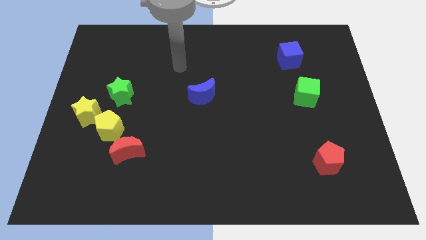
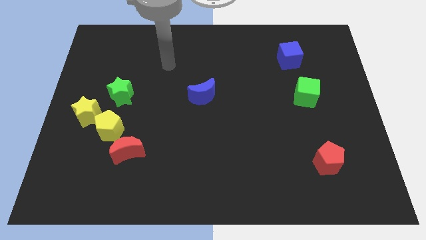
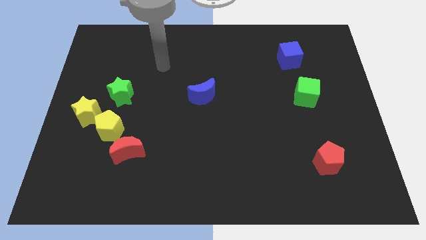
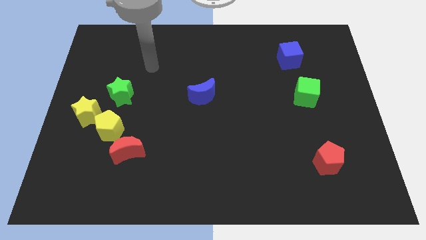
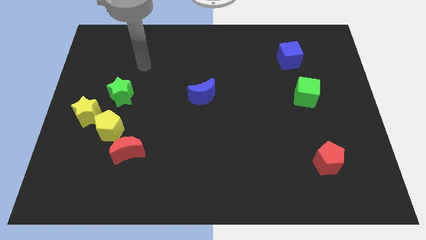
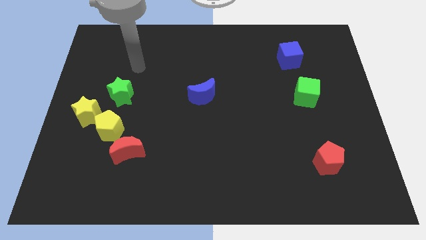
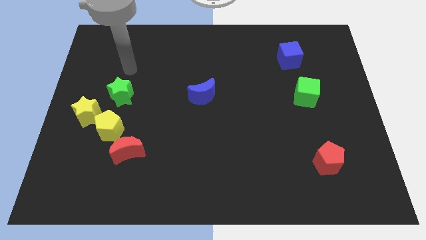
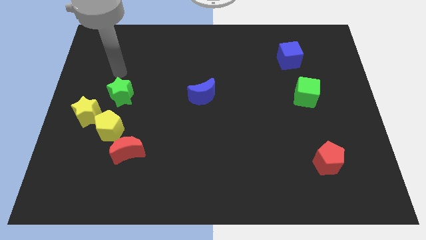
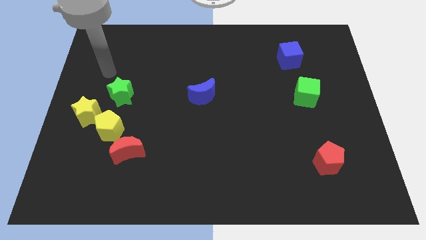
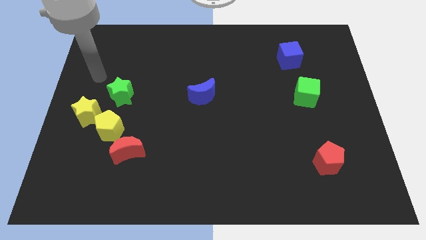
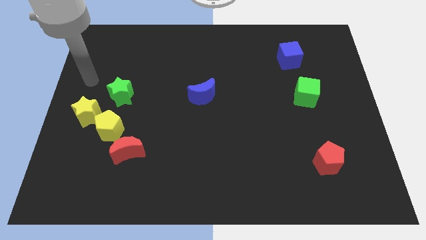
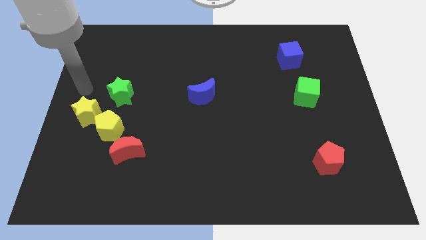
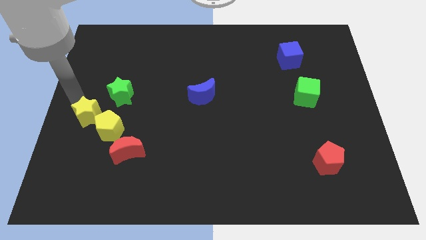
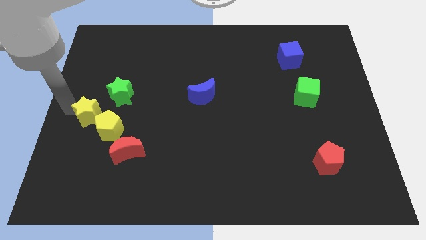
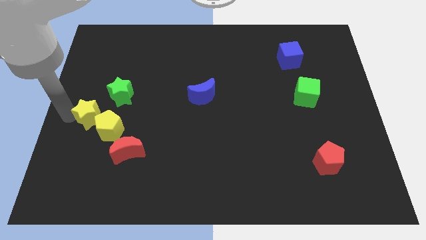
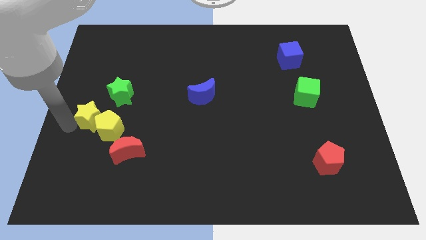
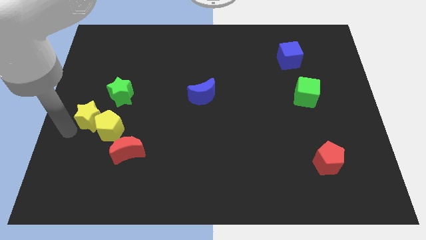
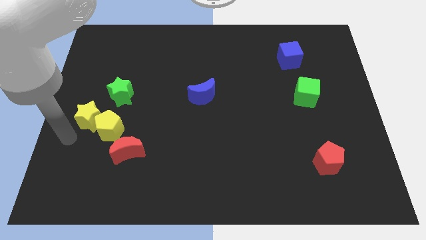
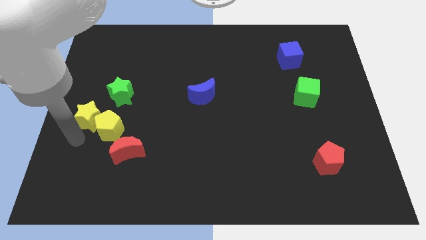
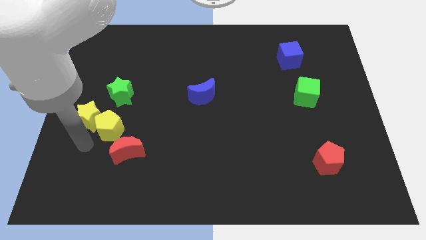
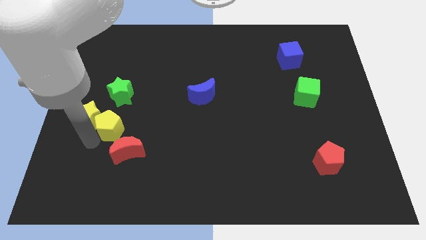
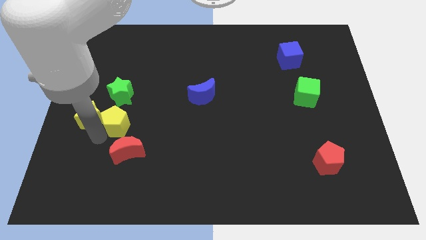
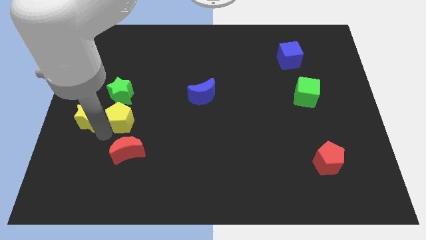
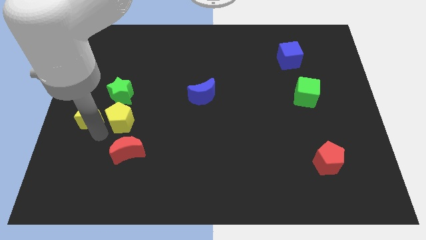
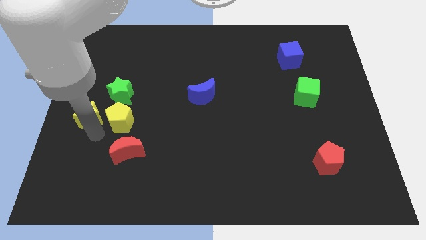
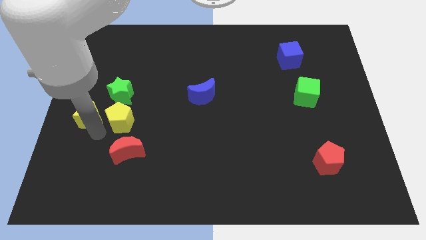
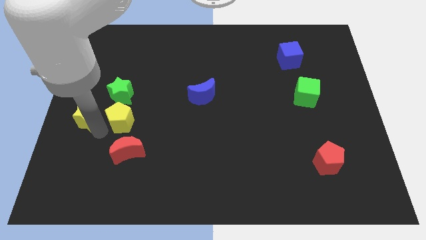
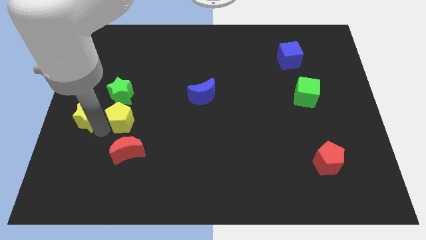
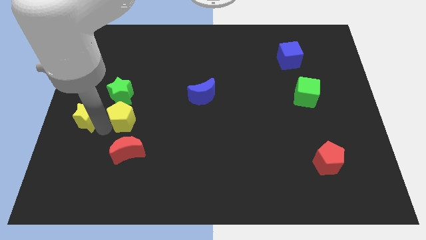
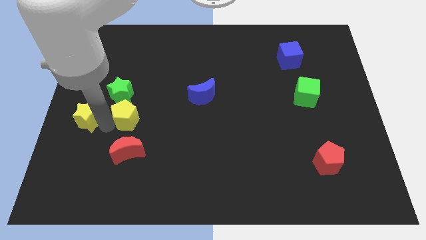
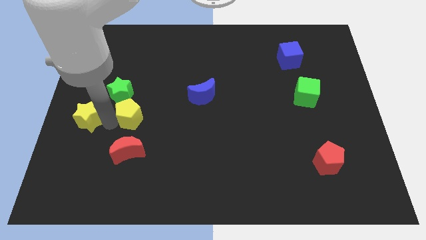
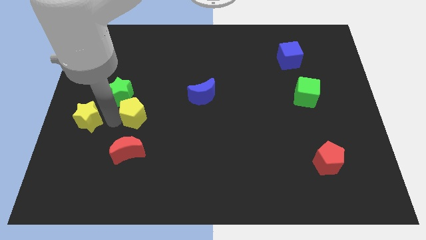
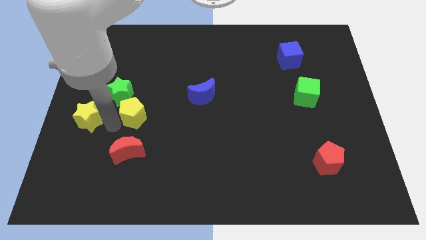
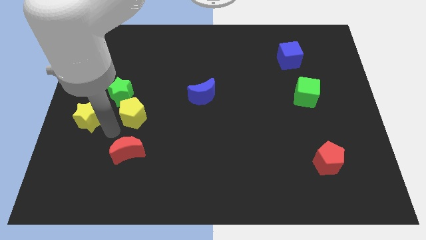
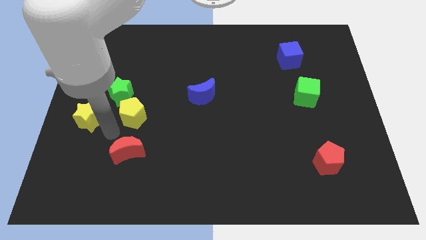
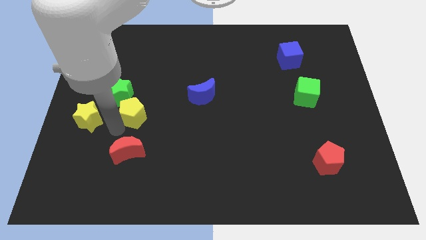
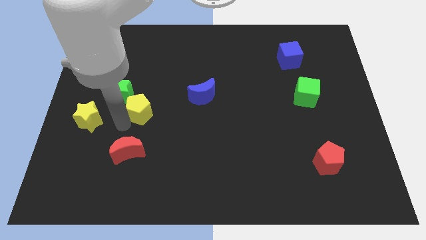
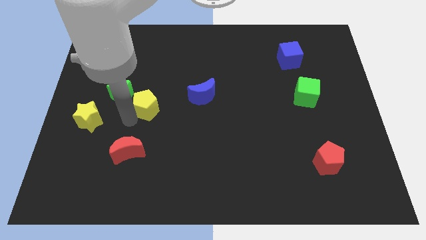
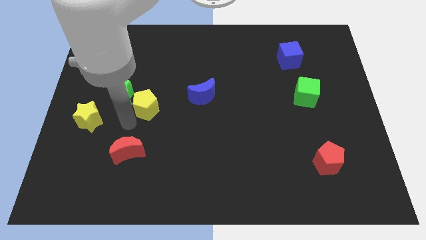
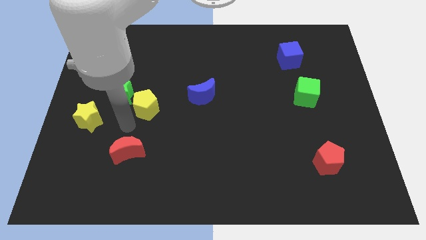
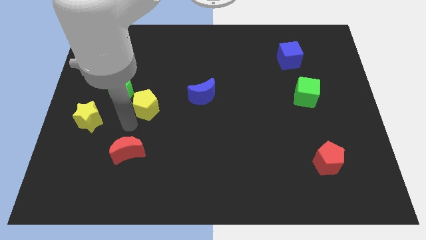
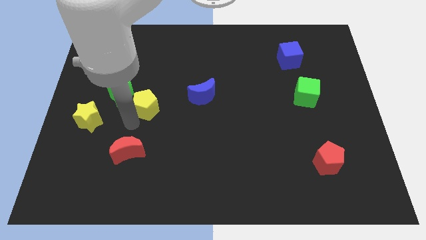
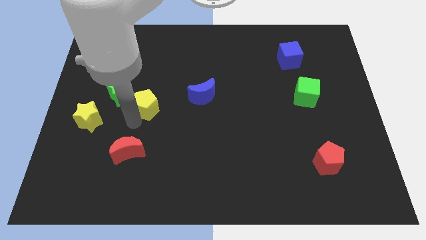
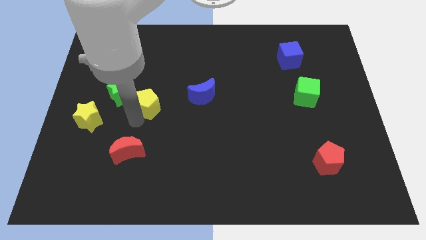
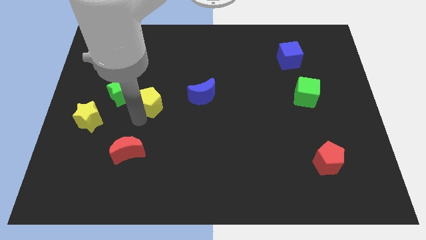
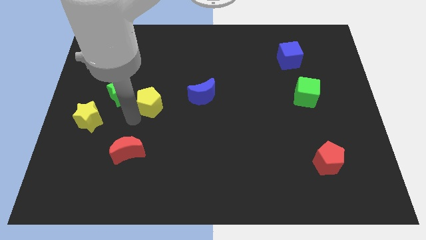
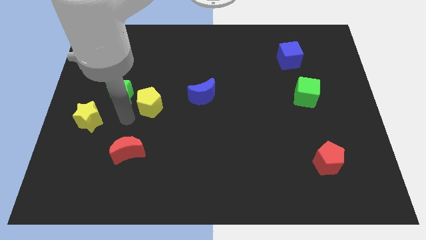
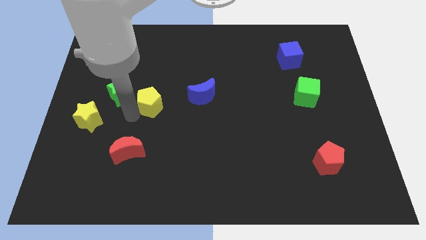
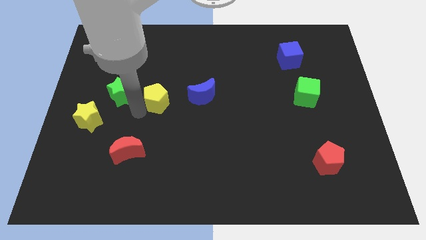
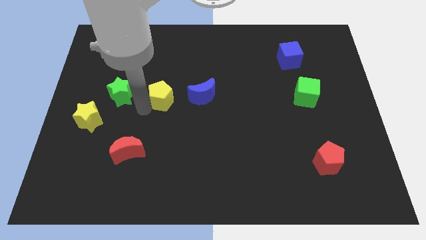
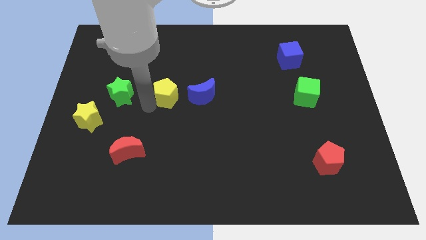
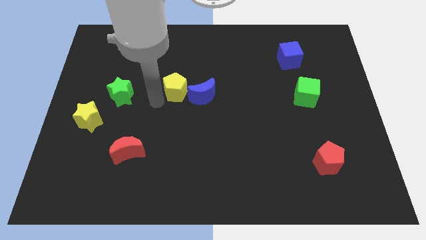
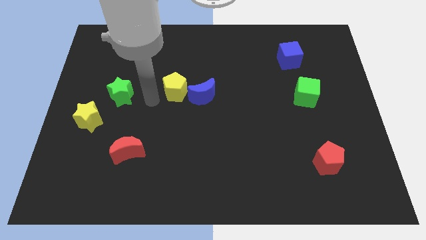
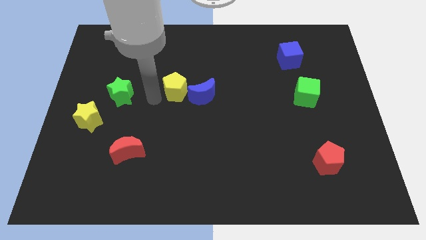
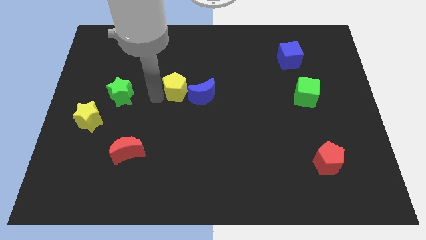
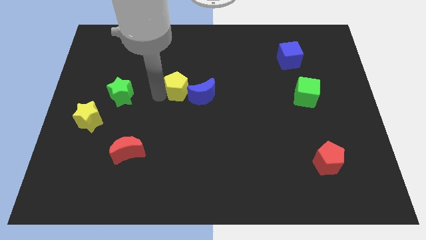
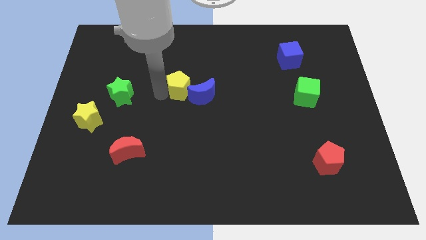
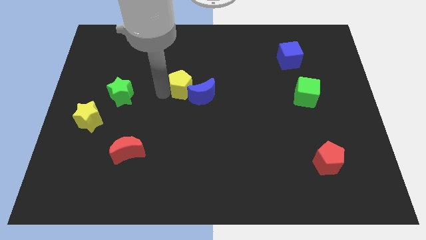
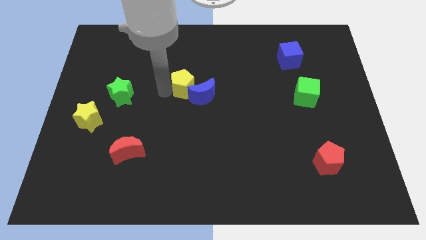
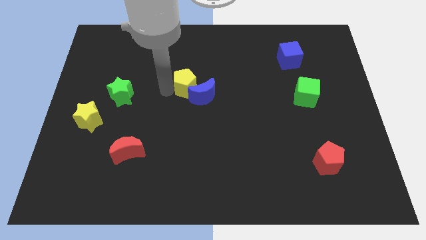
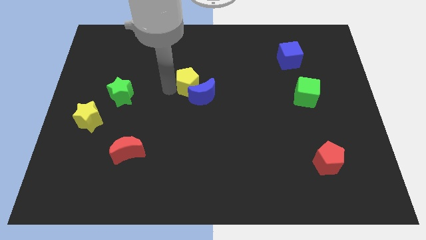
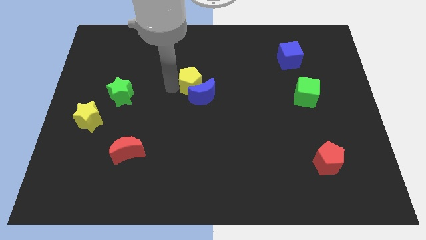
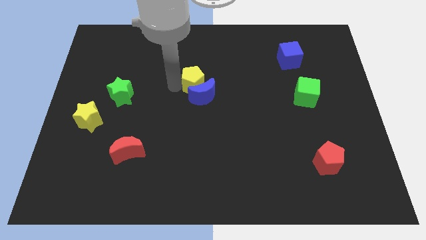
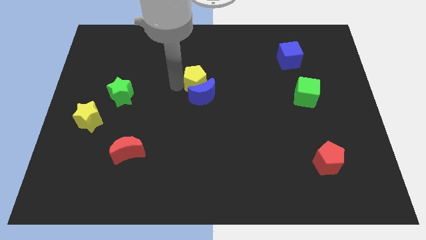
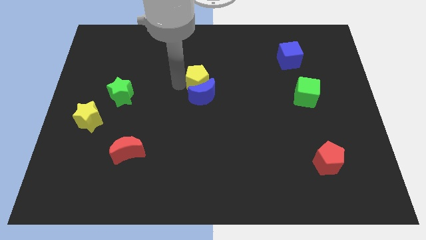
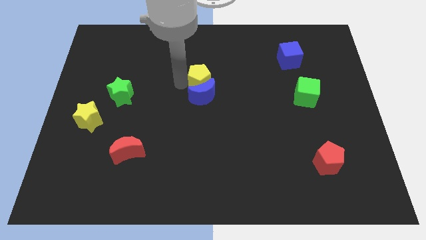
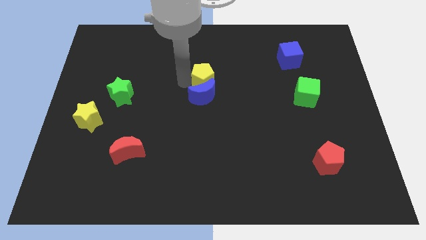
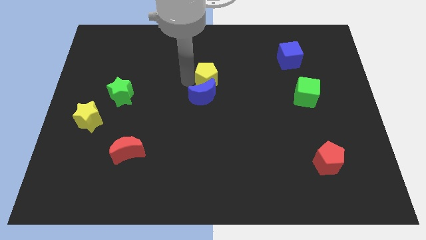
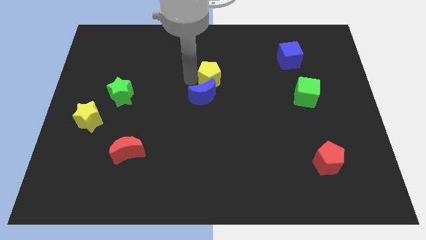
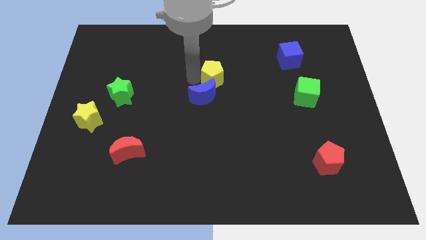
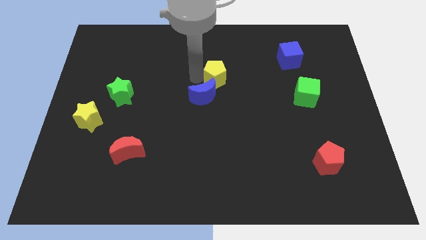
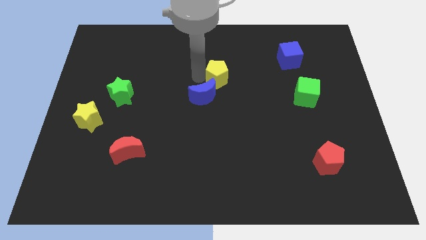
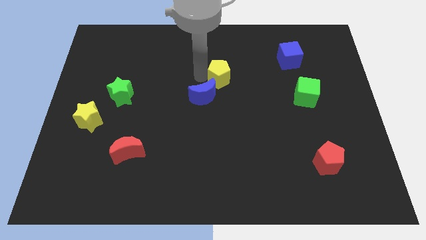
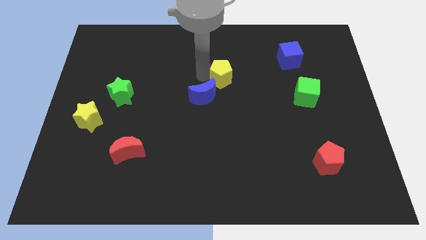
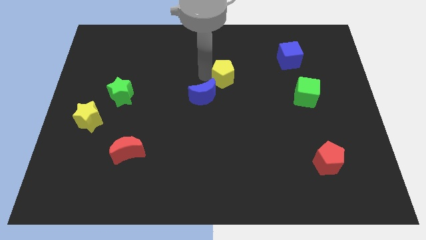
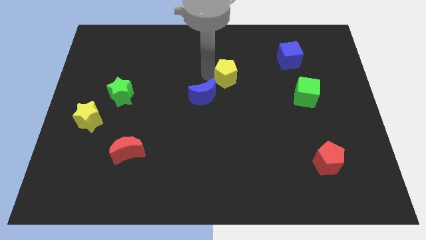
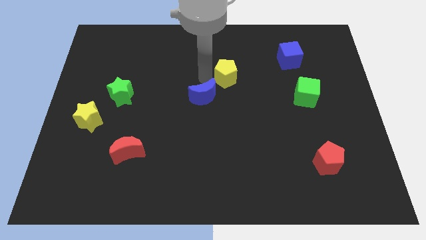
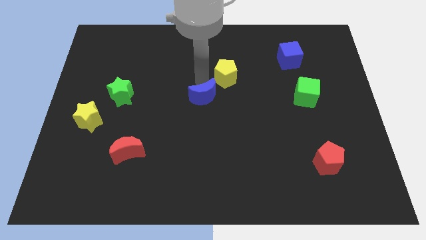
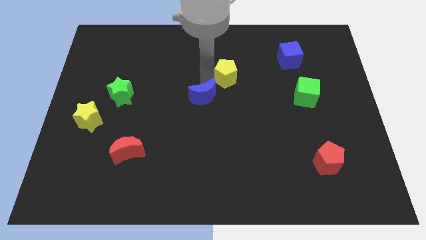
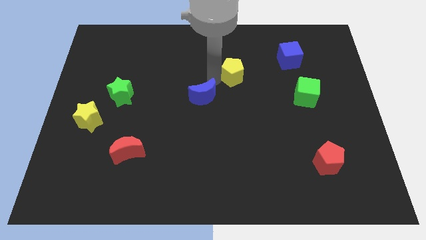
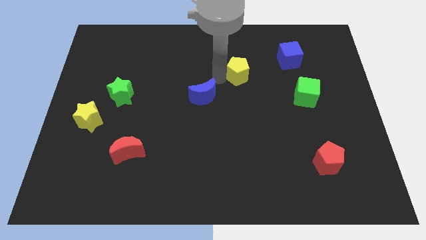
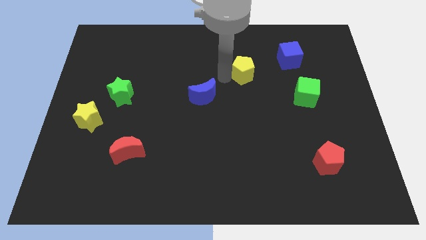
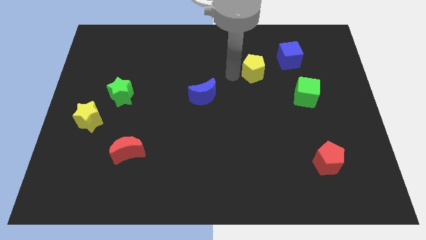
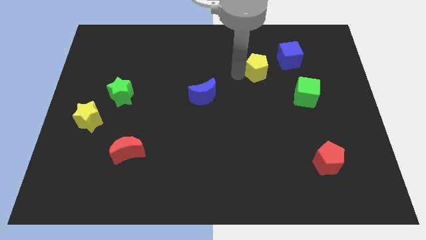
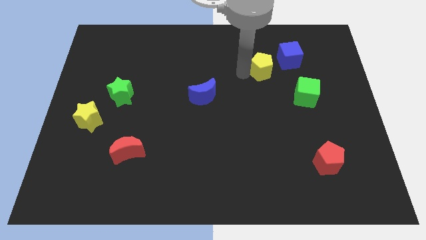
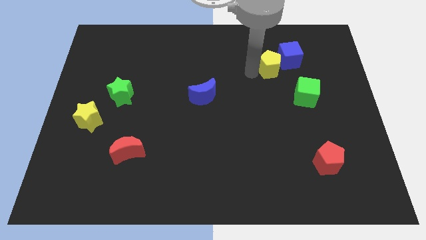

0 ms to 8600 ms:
slide the yellow pentagon to the blue cube
